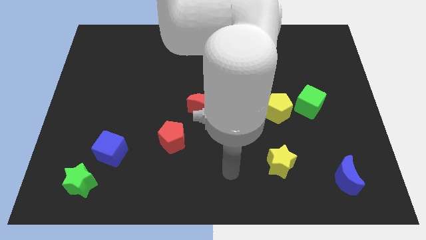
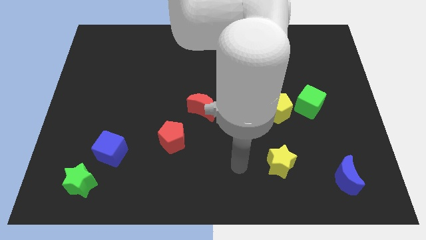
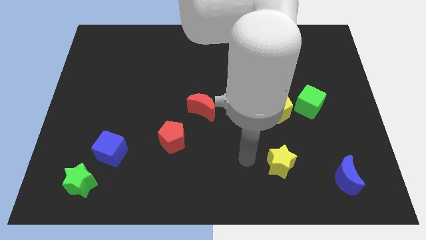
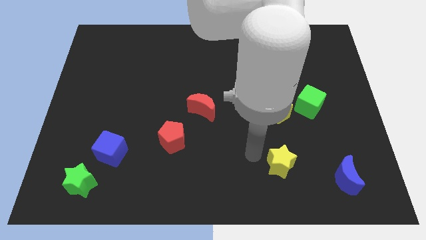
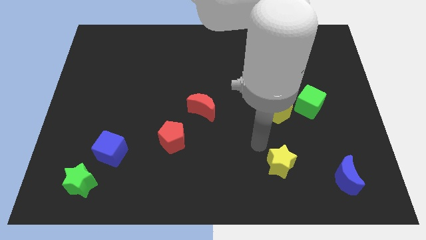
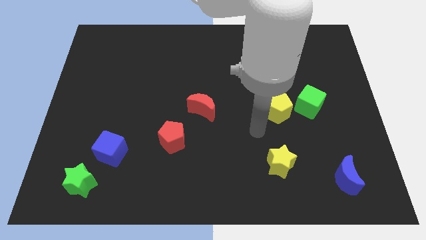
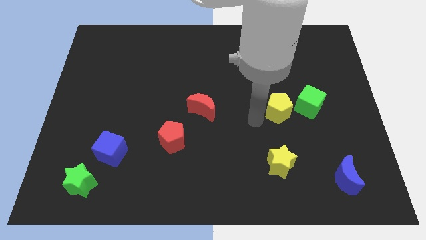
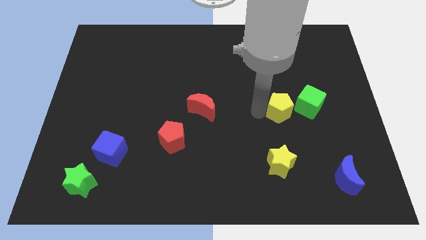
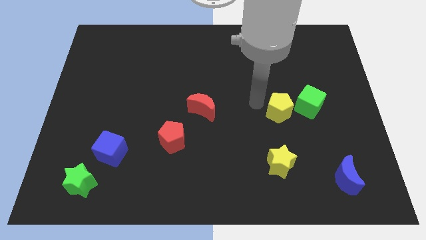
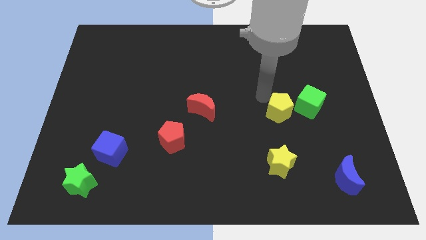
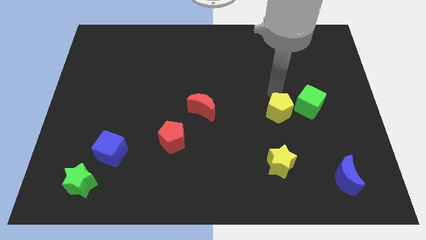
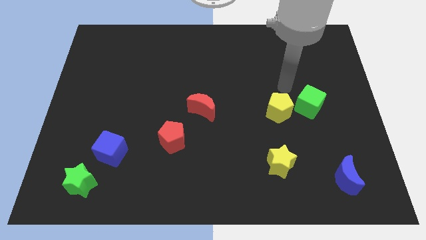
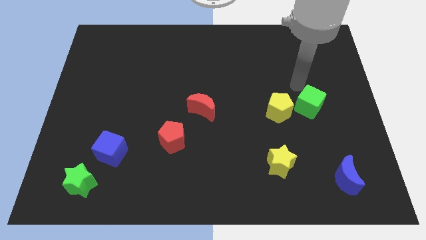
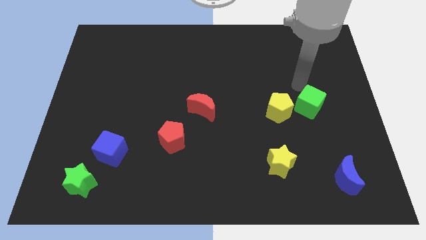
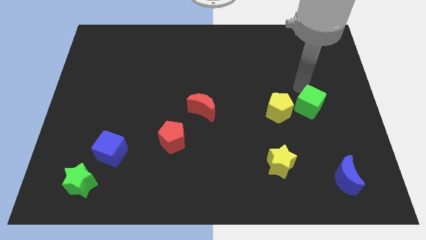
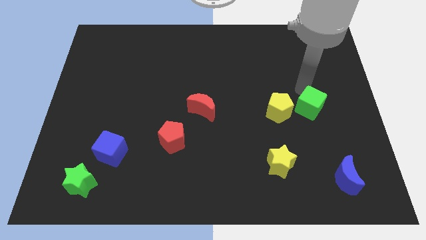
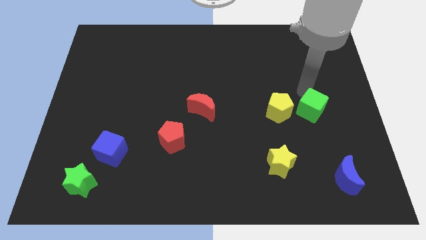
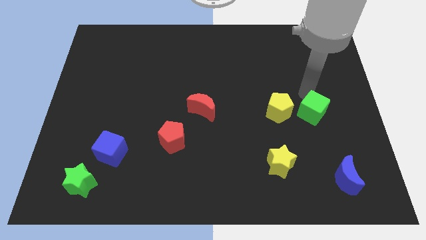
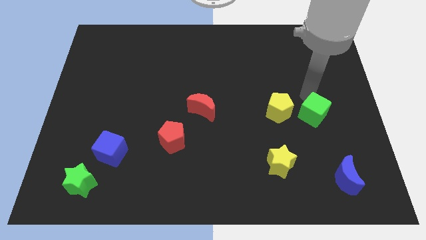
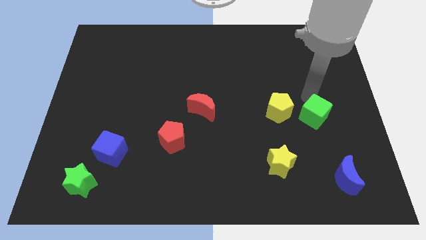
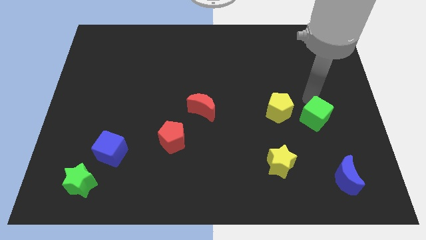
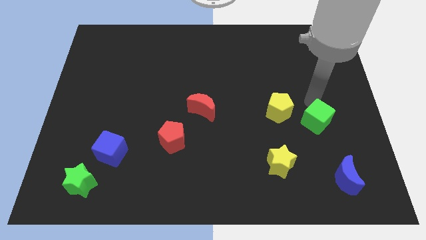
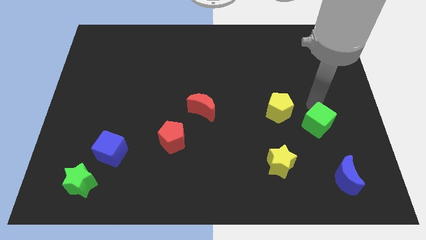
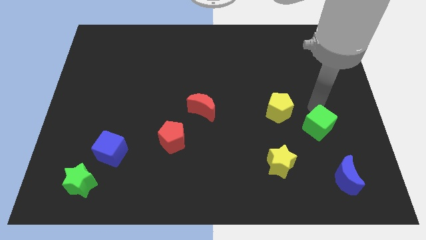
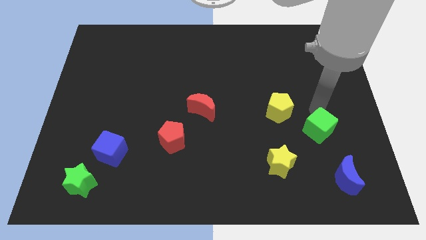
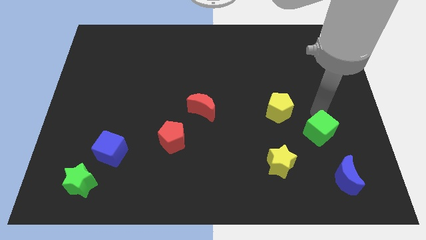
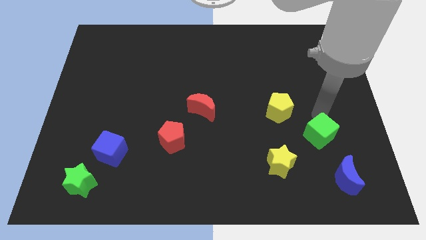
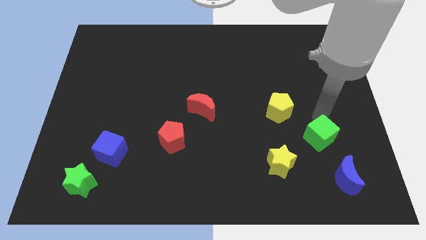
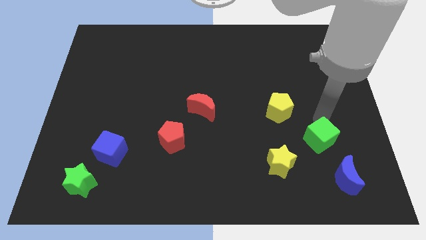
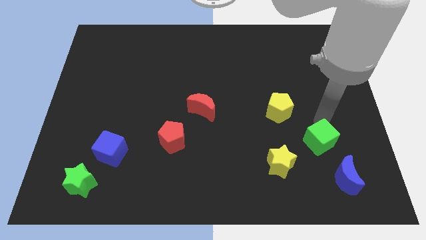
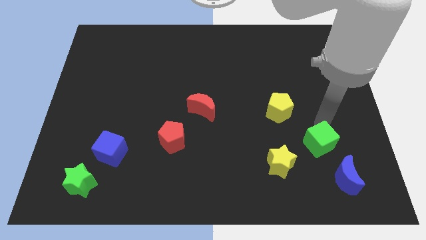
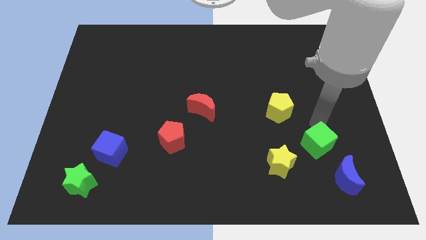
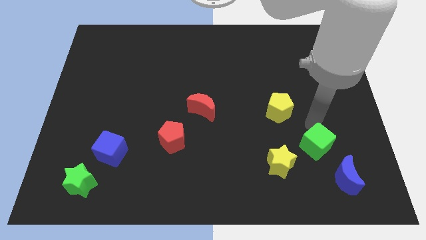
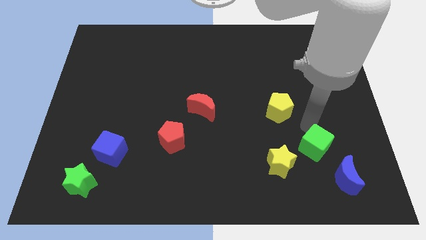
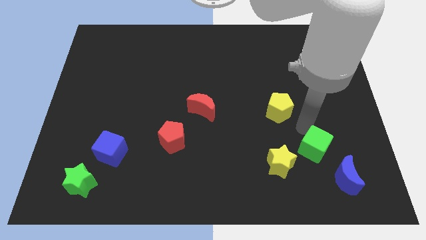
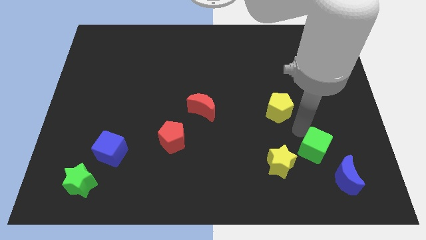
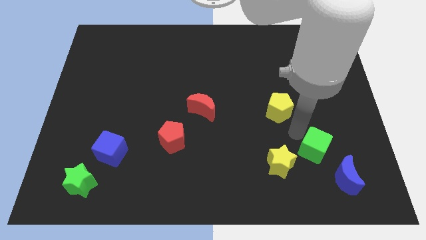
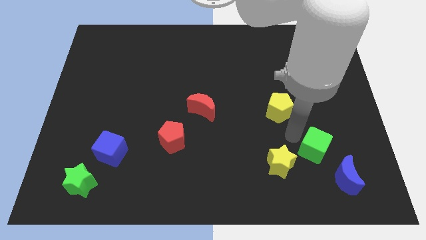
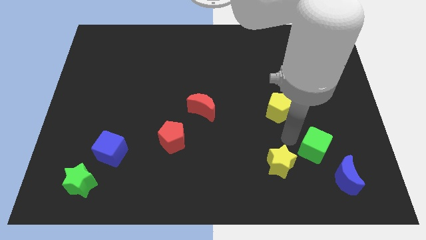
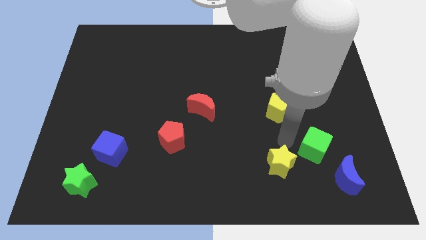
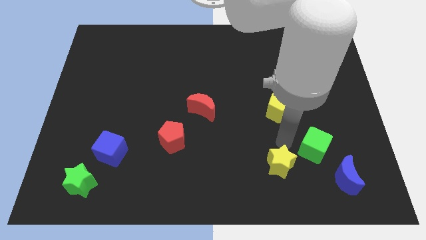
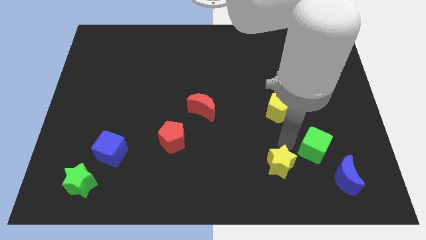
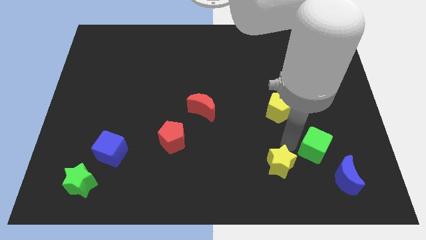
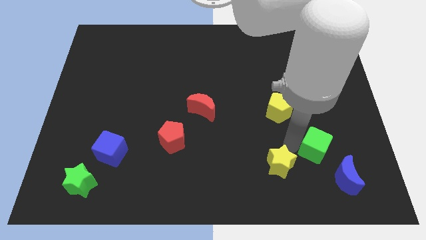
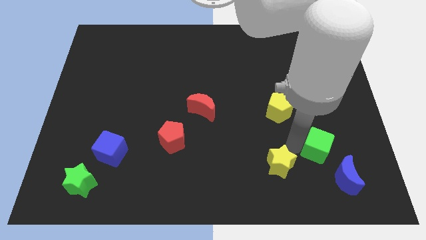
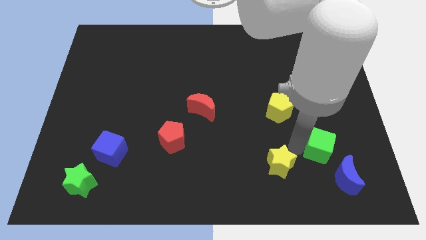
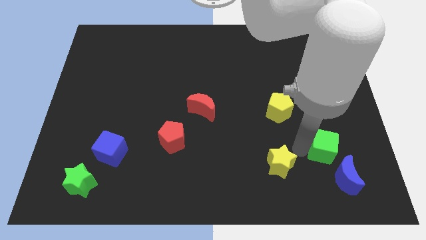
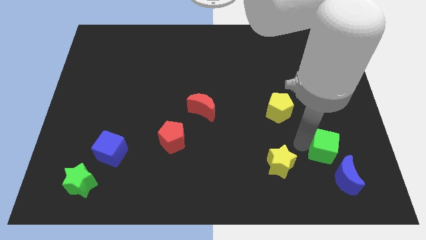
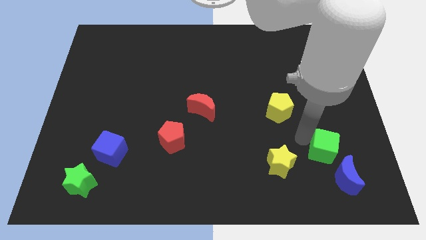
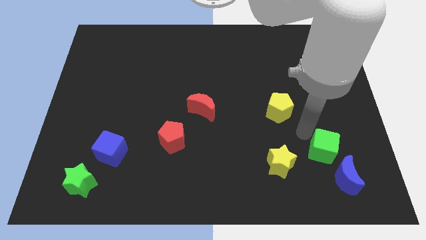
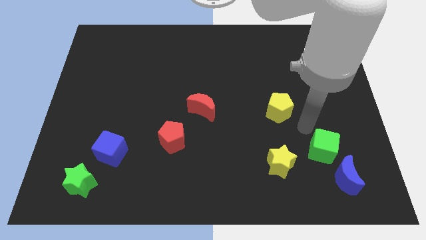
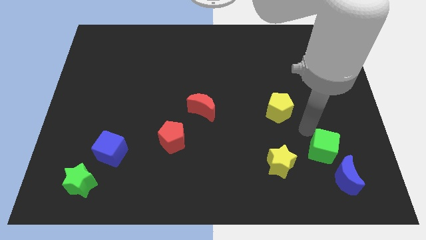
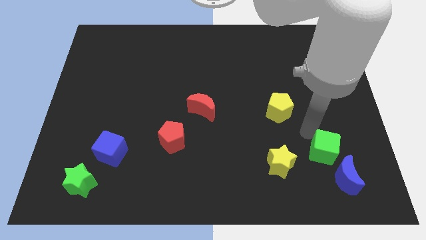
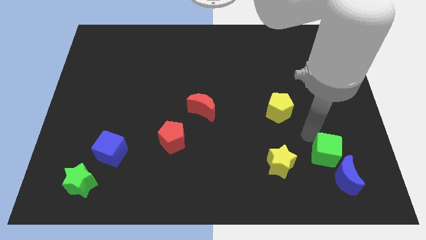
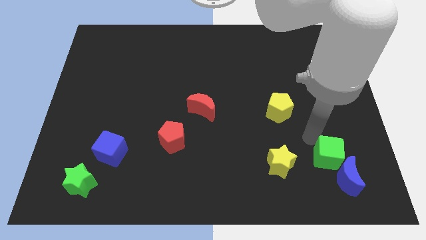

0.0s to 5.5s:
slide the green cube close to the blue moon

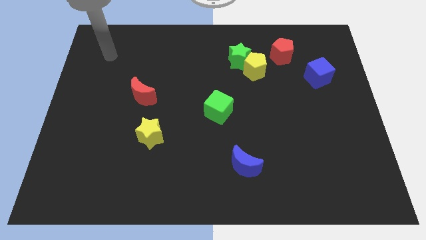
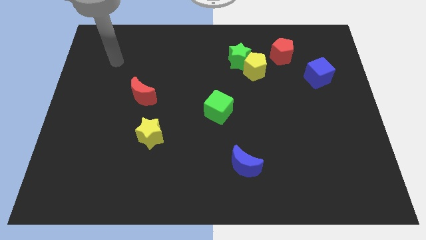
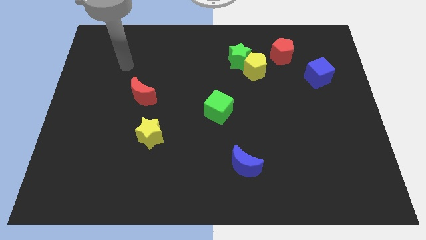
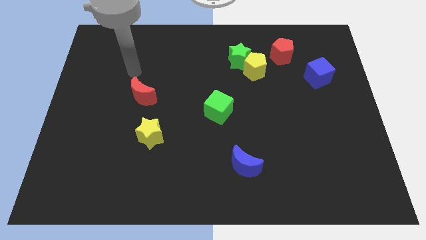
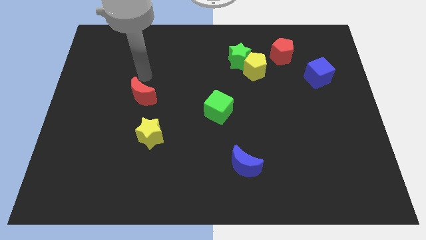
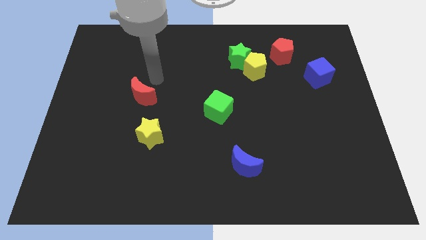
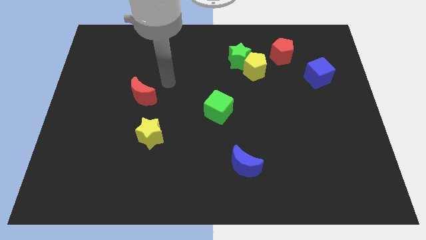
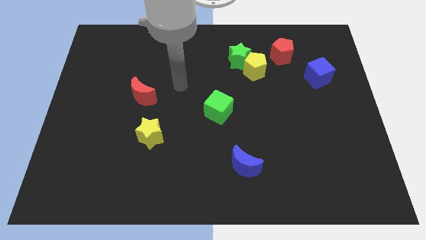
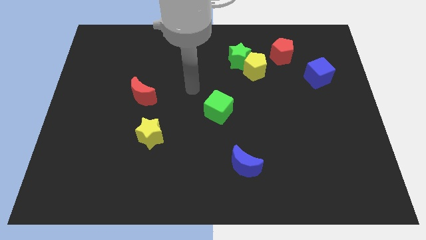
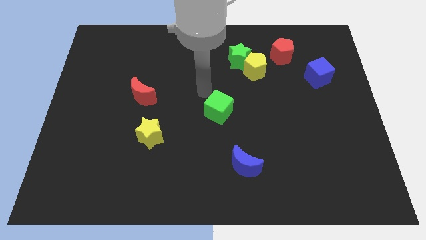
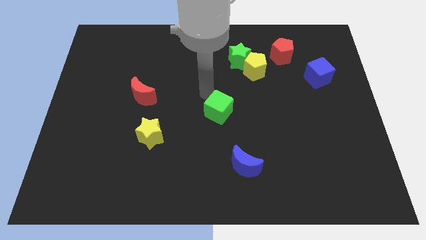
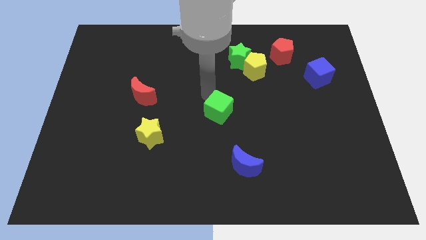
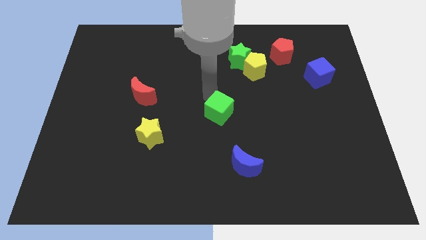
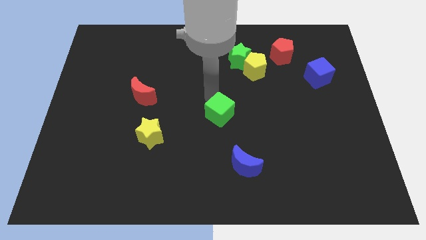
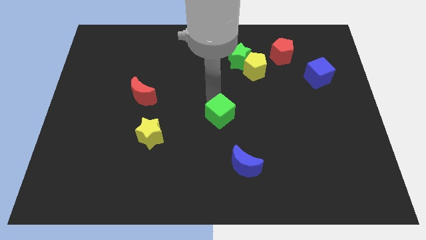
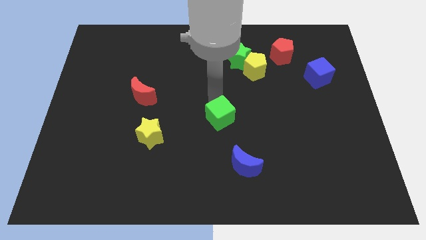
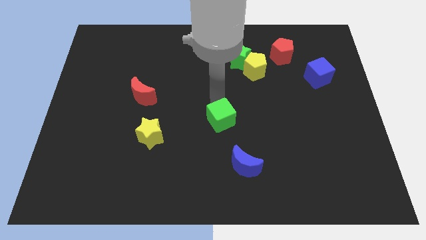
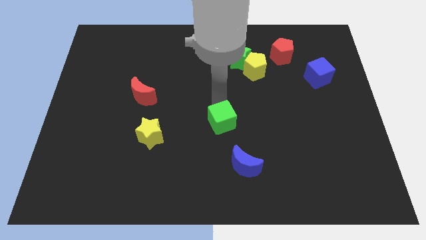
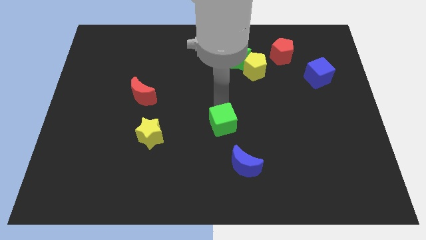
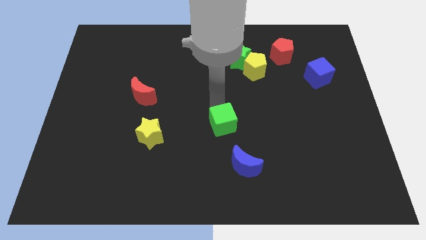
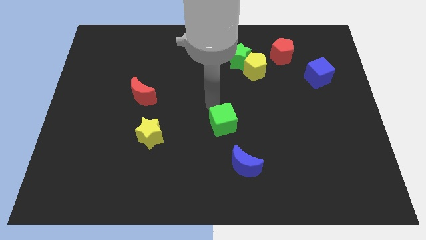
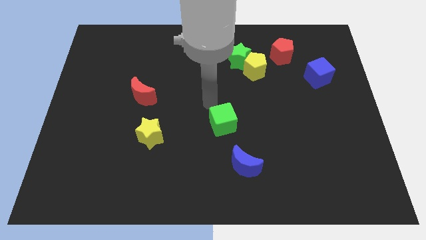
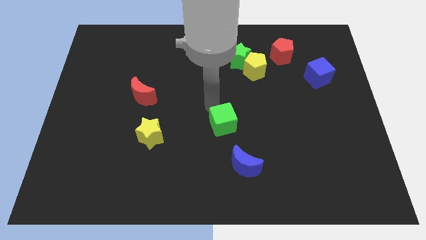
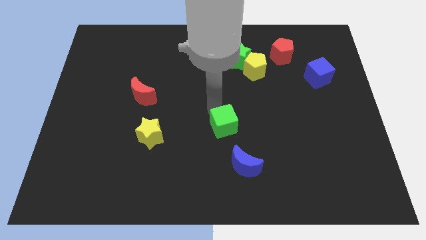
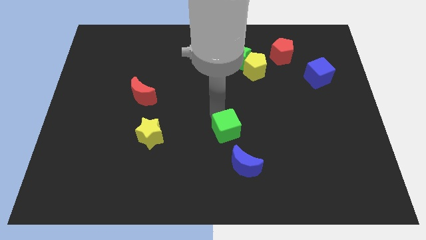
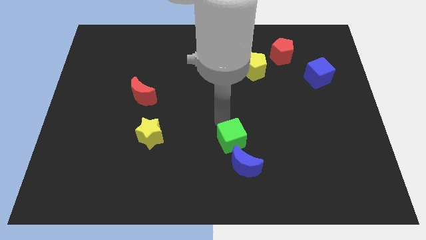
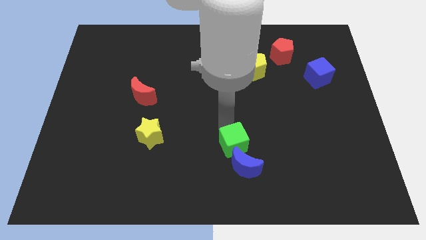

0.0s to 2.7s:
put the green cube close to the blue moon
